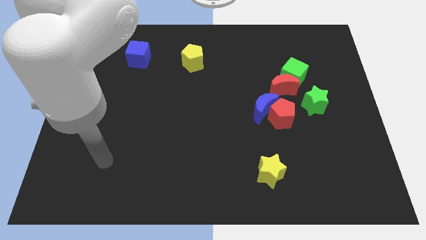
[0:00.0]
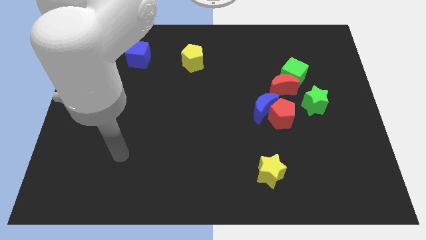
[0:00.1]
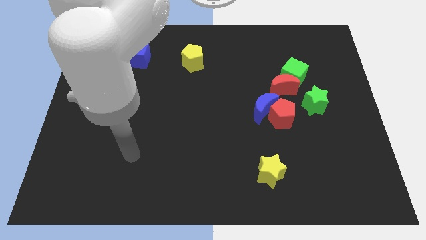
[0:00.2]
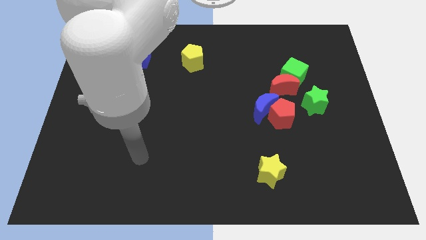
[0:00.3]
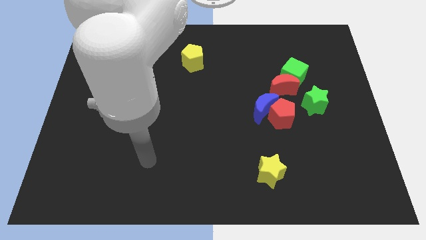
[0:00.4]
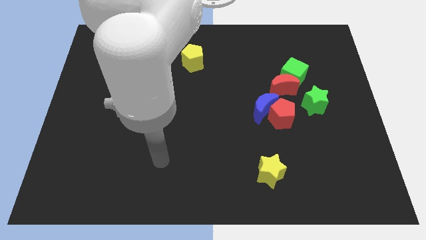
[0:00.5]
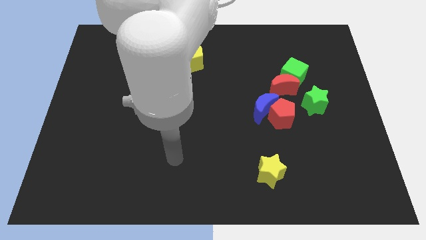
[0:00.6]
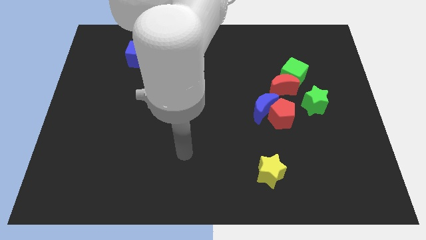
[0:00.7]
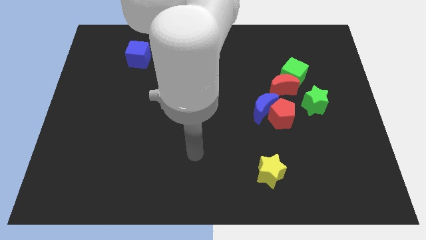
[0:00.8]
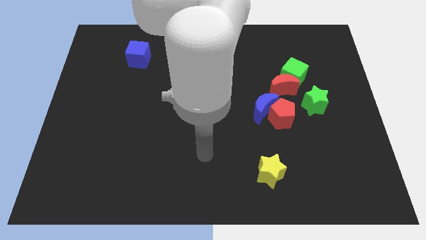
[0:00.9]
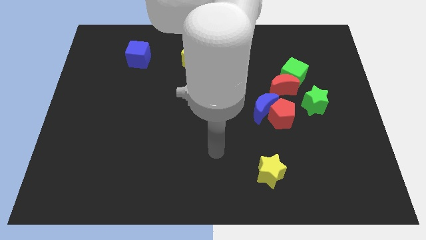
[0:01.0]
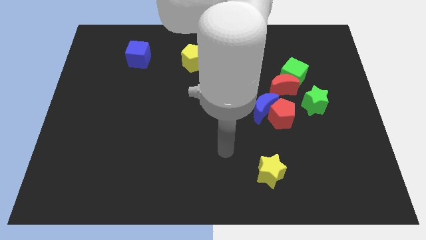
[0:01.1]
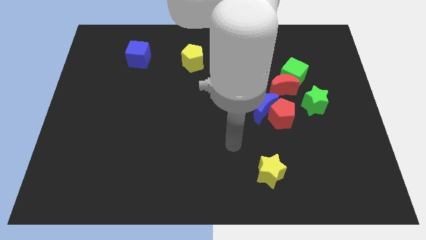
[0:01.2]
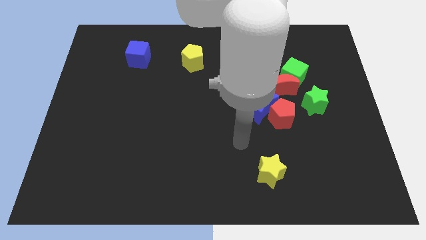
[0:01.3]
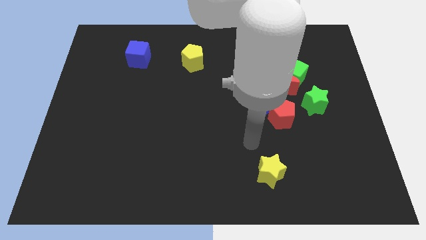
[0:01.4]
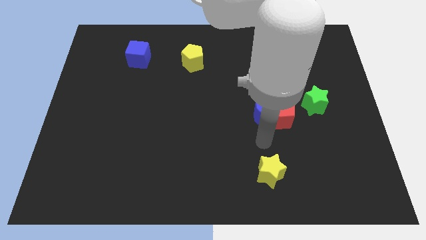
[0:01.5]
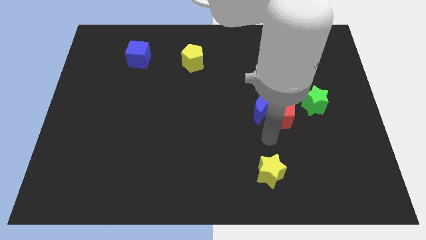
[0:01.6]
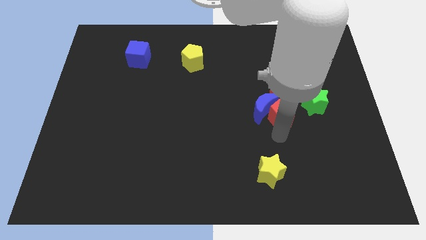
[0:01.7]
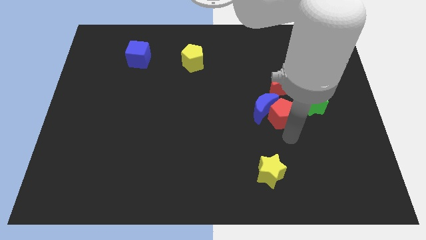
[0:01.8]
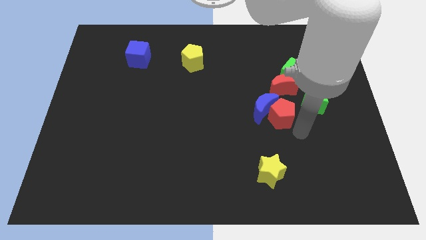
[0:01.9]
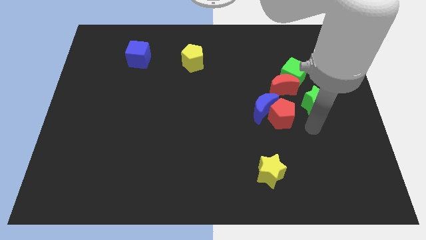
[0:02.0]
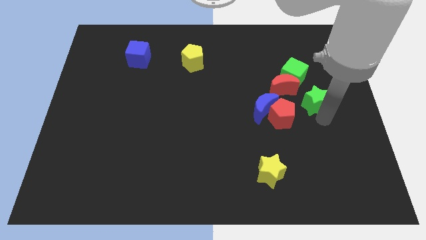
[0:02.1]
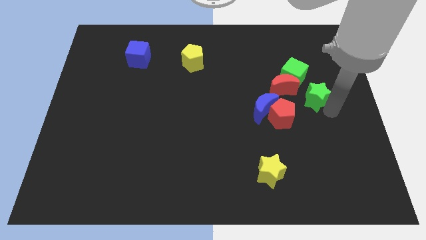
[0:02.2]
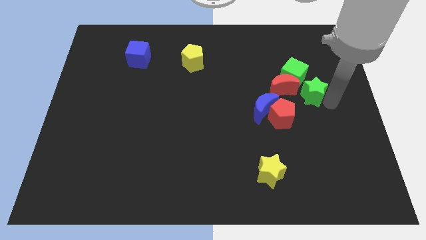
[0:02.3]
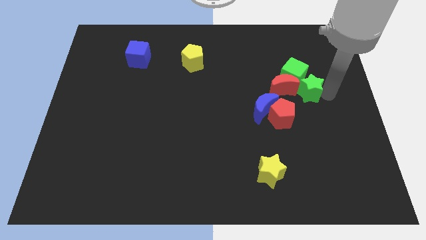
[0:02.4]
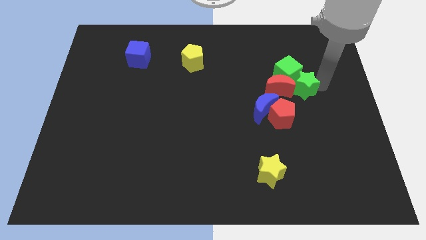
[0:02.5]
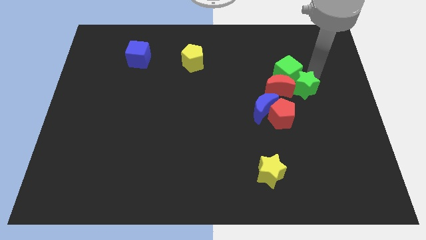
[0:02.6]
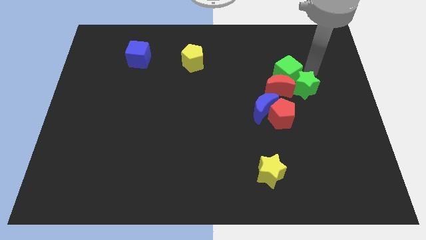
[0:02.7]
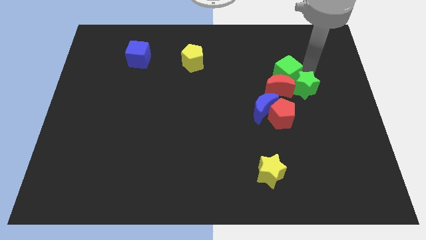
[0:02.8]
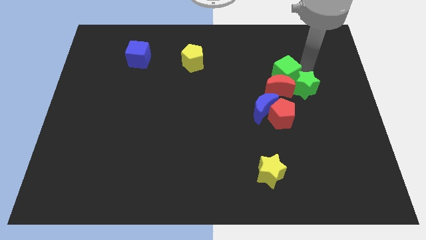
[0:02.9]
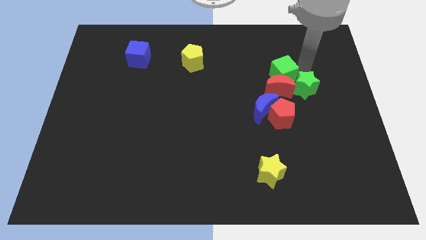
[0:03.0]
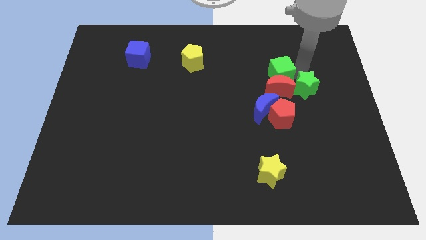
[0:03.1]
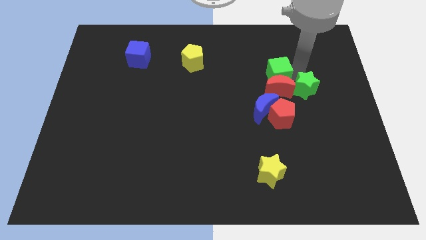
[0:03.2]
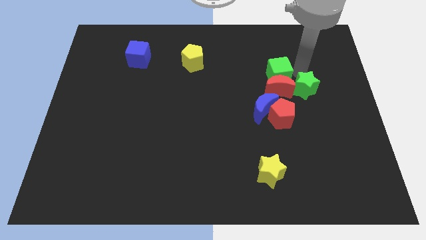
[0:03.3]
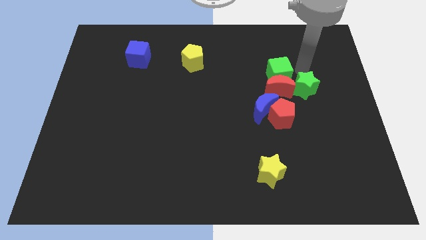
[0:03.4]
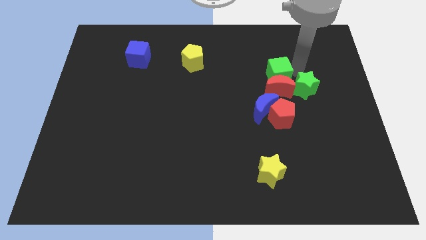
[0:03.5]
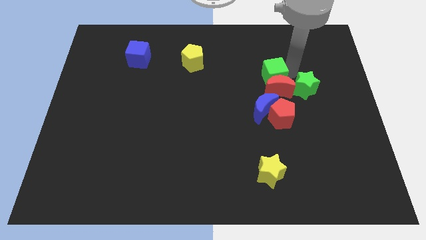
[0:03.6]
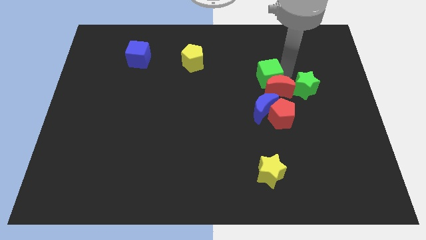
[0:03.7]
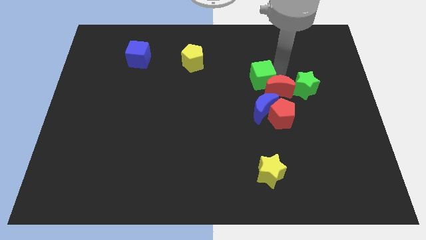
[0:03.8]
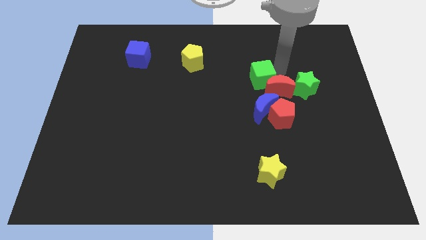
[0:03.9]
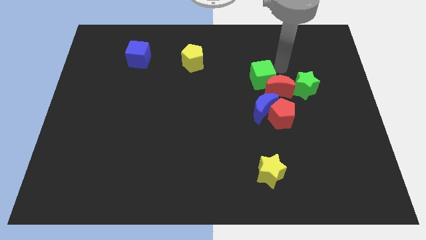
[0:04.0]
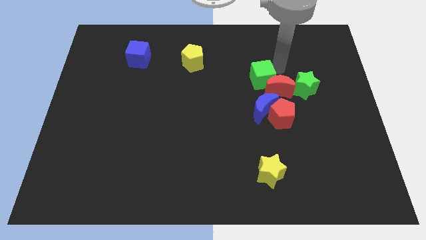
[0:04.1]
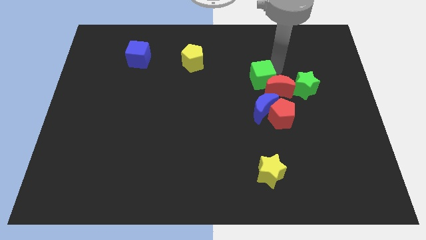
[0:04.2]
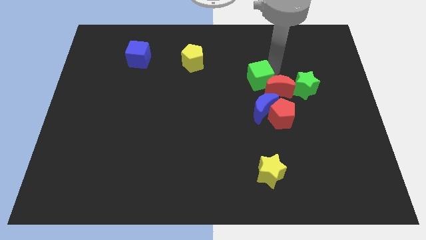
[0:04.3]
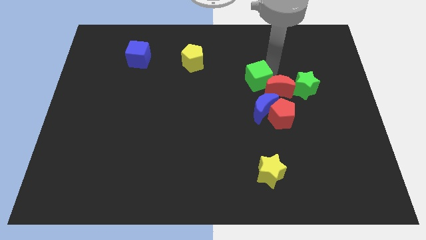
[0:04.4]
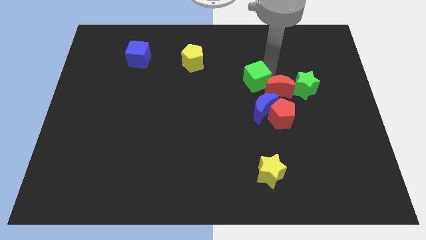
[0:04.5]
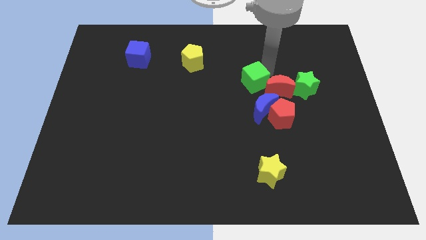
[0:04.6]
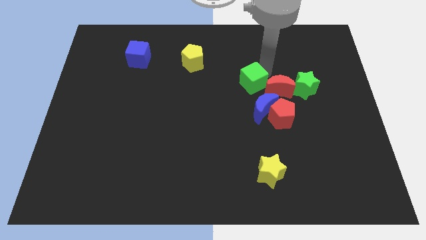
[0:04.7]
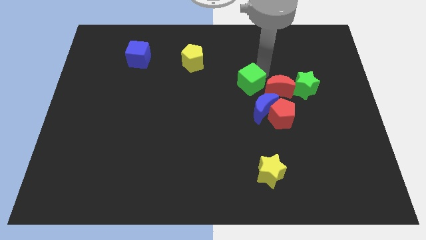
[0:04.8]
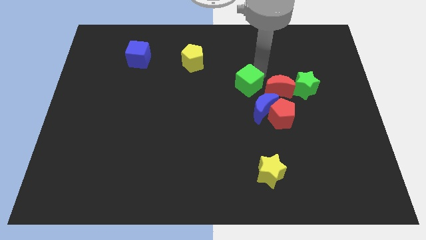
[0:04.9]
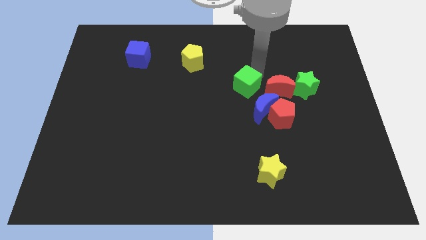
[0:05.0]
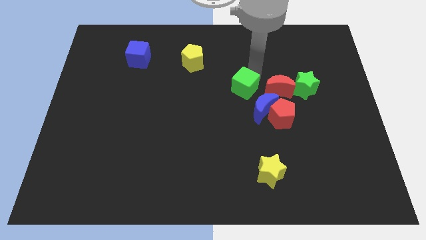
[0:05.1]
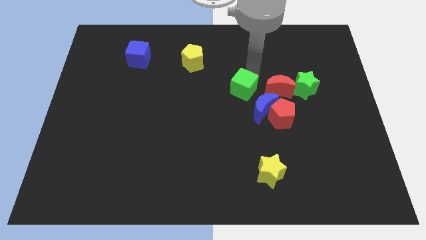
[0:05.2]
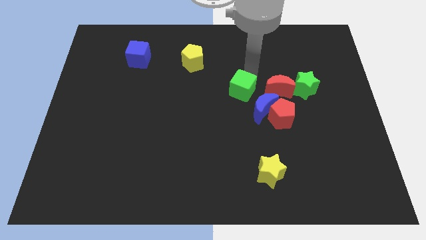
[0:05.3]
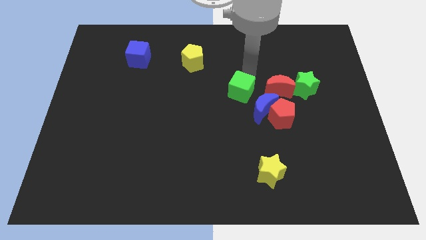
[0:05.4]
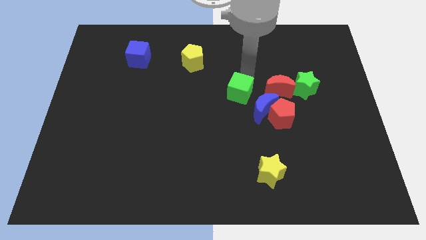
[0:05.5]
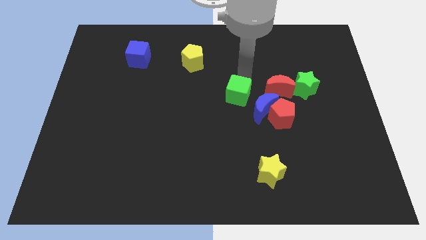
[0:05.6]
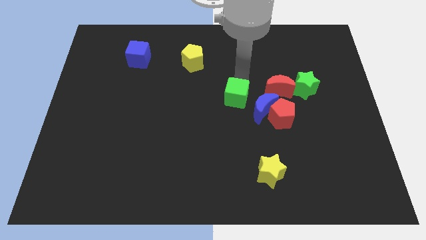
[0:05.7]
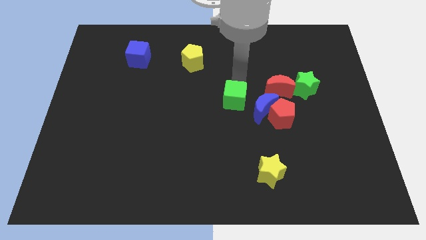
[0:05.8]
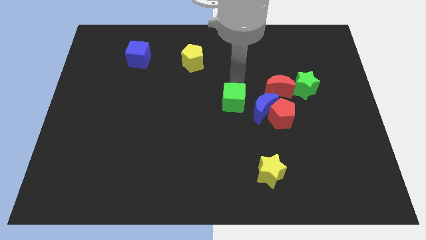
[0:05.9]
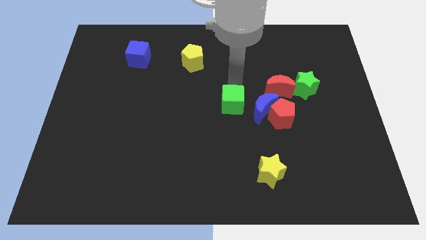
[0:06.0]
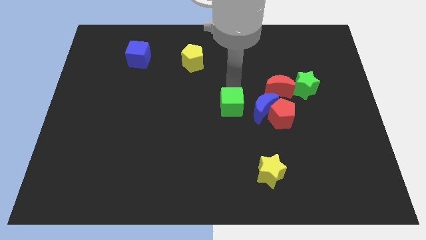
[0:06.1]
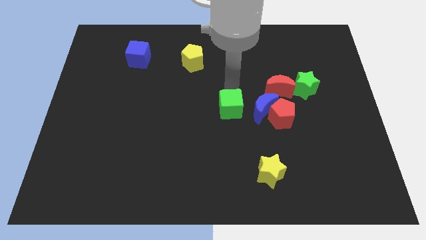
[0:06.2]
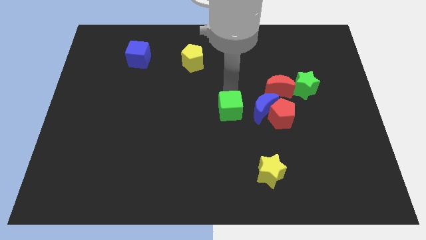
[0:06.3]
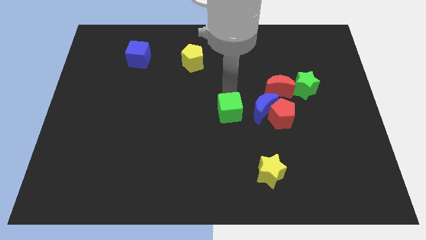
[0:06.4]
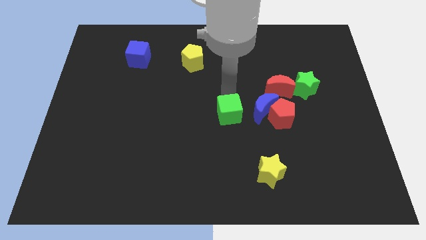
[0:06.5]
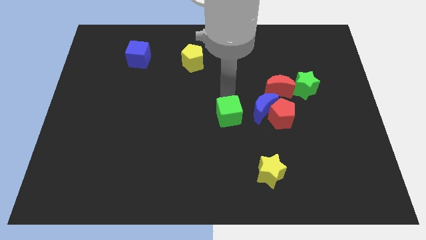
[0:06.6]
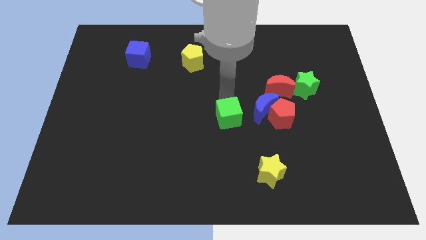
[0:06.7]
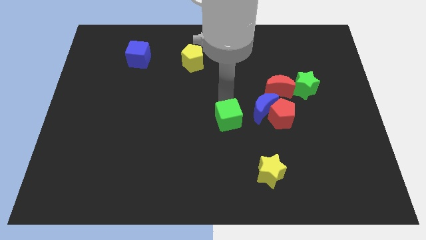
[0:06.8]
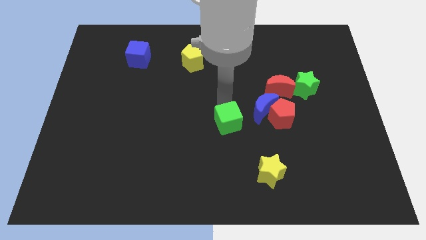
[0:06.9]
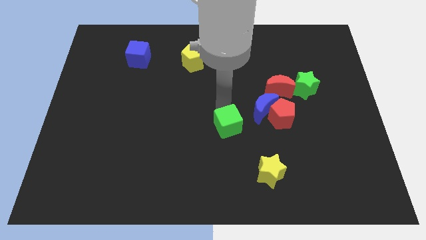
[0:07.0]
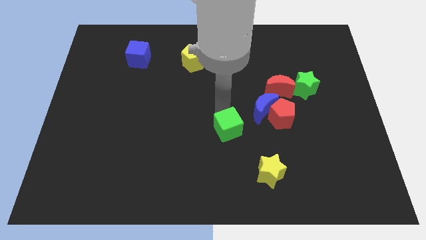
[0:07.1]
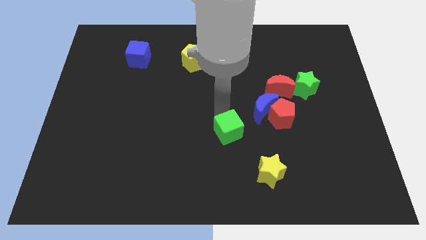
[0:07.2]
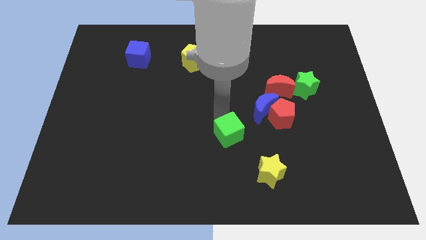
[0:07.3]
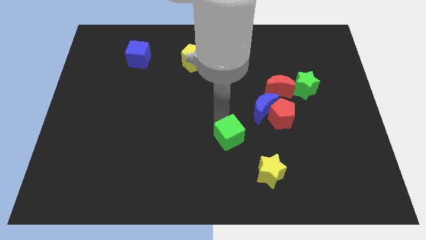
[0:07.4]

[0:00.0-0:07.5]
move the green cube diagonally up and to the left of the yellow star

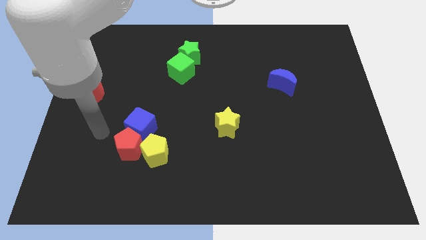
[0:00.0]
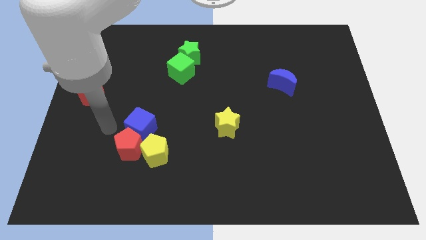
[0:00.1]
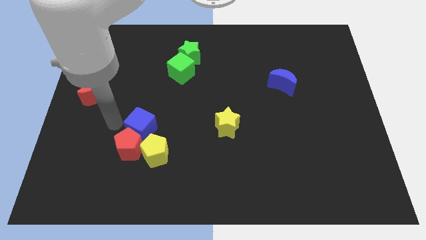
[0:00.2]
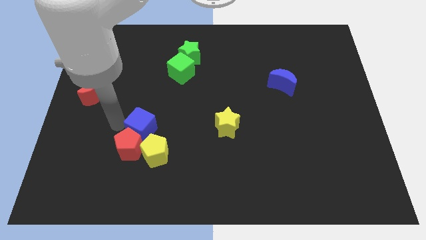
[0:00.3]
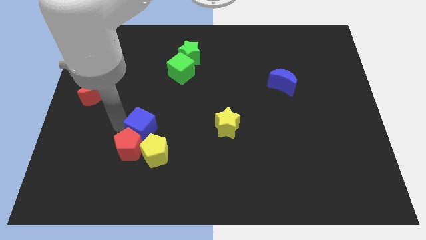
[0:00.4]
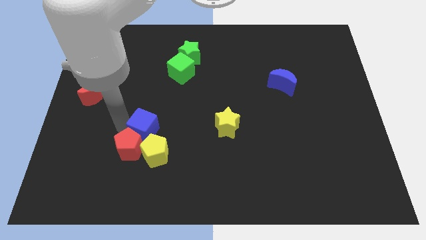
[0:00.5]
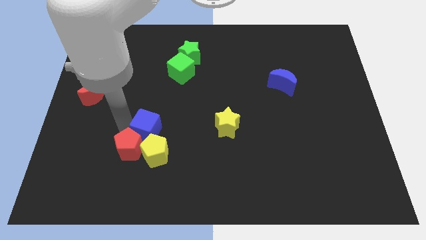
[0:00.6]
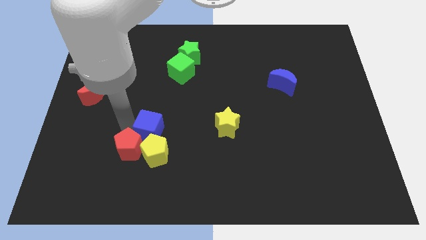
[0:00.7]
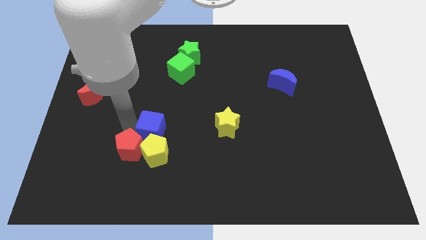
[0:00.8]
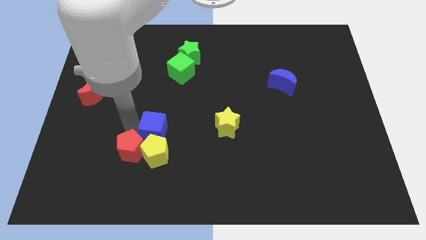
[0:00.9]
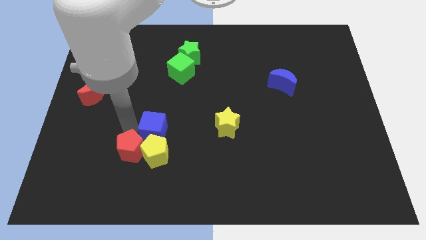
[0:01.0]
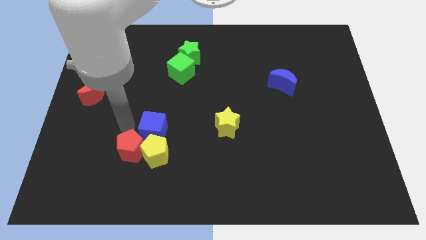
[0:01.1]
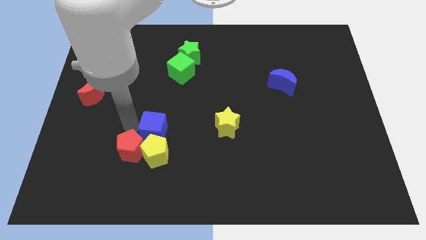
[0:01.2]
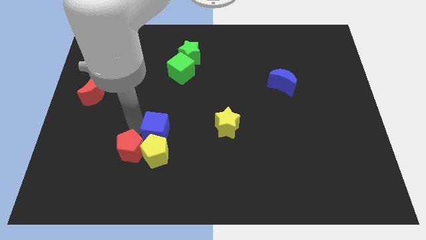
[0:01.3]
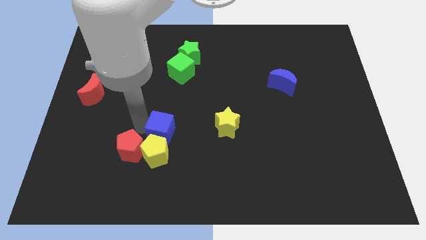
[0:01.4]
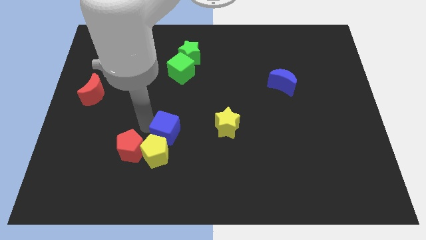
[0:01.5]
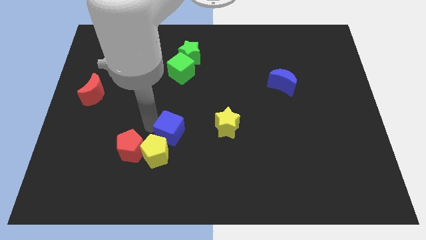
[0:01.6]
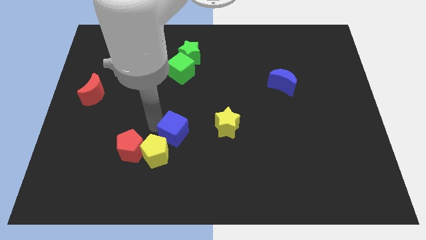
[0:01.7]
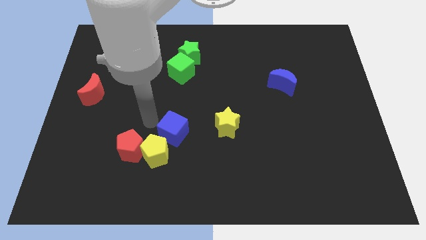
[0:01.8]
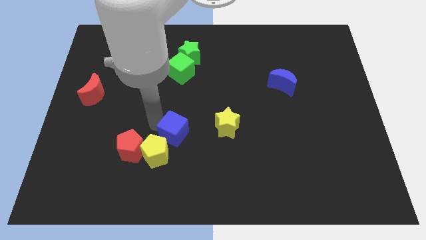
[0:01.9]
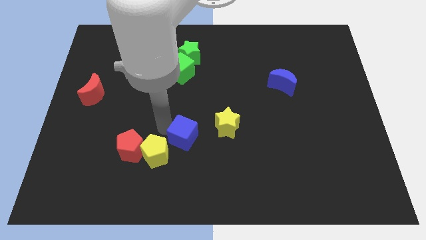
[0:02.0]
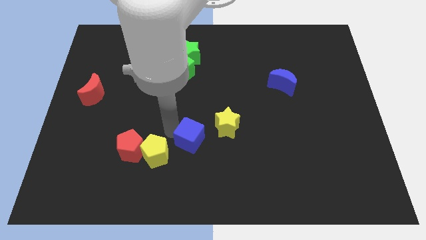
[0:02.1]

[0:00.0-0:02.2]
put the blue cube to the bottom left side of the yellow star
